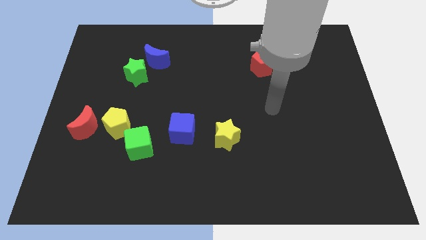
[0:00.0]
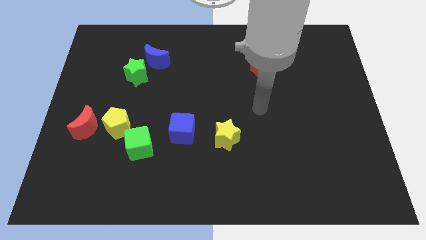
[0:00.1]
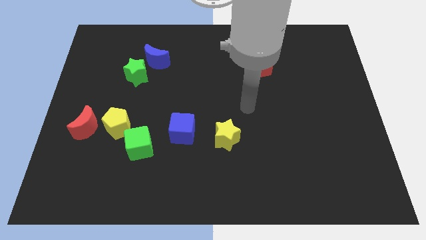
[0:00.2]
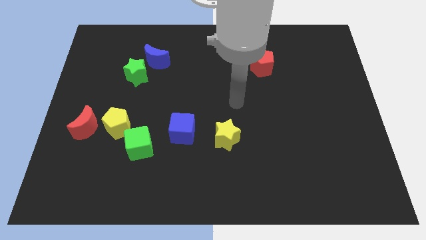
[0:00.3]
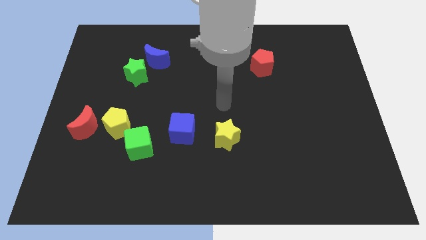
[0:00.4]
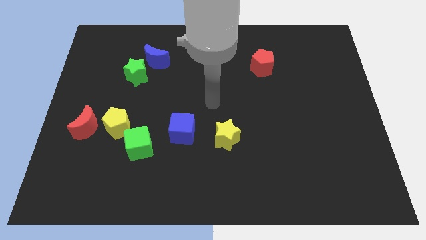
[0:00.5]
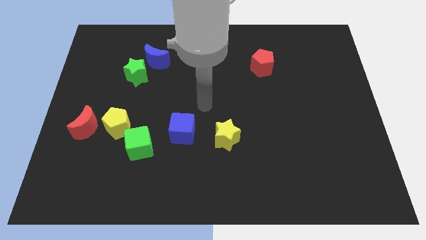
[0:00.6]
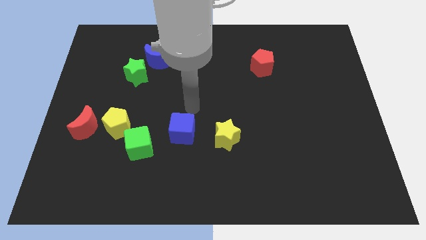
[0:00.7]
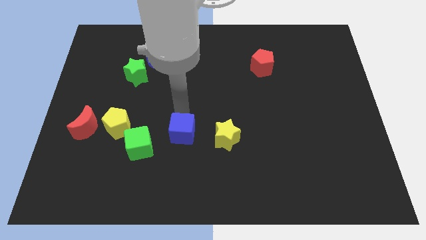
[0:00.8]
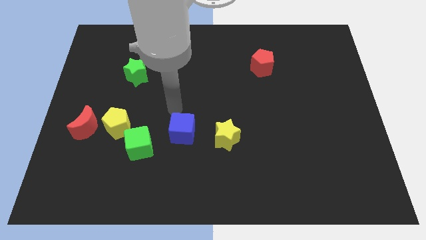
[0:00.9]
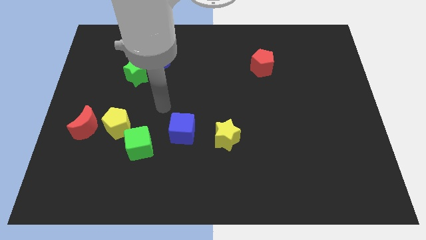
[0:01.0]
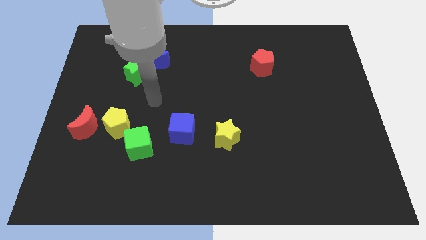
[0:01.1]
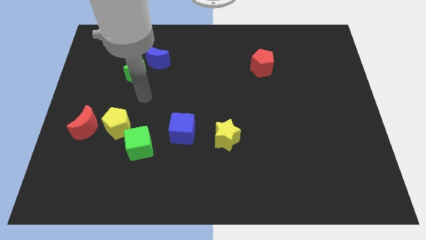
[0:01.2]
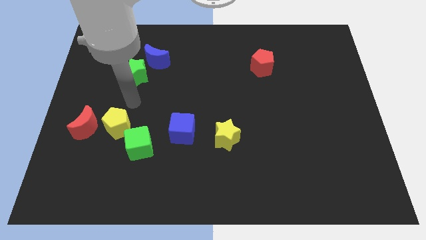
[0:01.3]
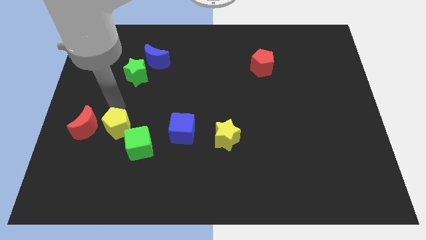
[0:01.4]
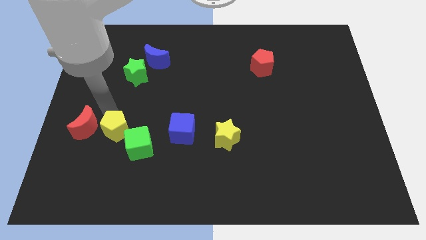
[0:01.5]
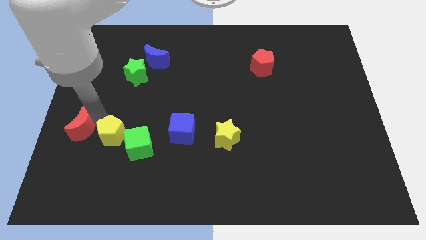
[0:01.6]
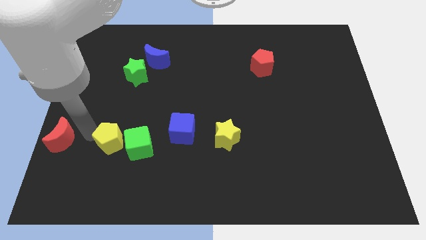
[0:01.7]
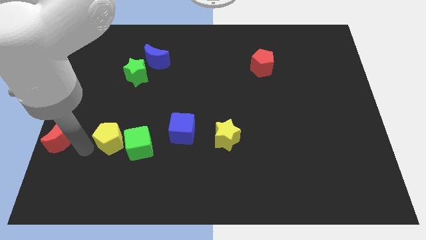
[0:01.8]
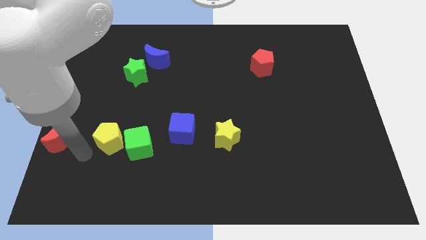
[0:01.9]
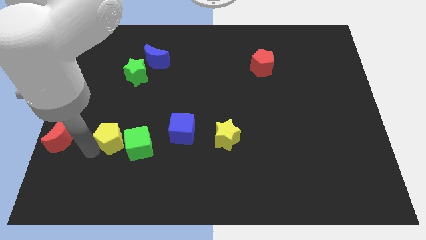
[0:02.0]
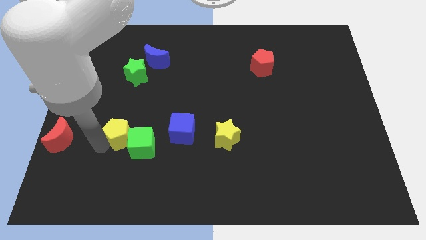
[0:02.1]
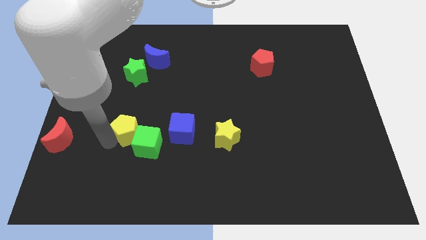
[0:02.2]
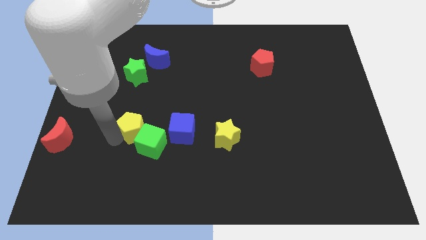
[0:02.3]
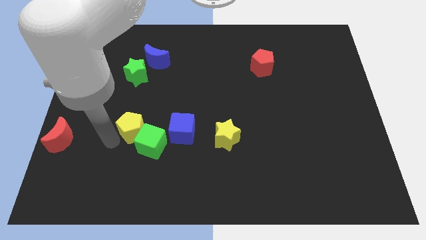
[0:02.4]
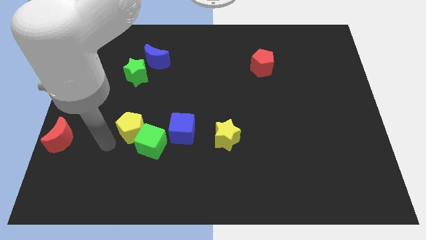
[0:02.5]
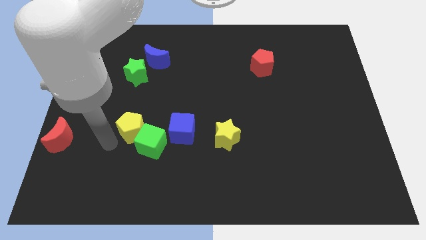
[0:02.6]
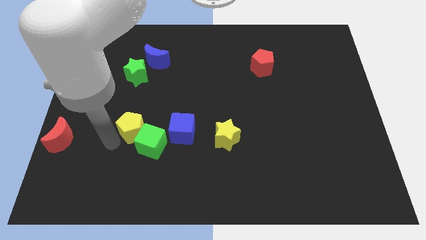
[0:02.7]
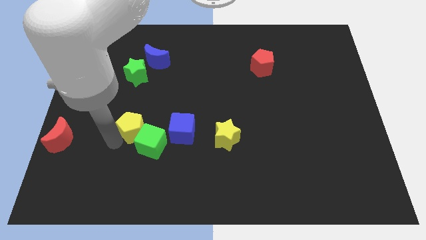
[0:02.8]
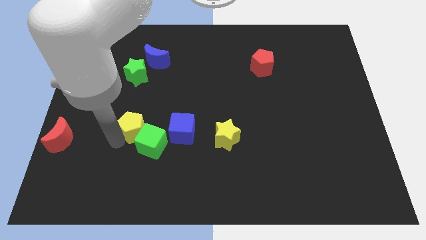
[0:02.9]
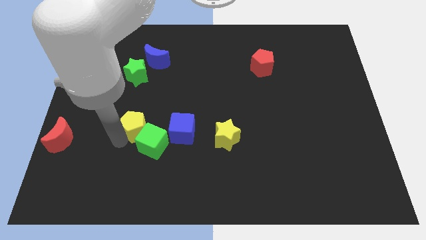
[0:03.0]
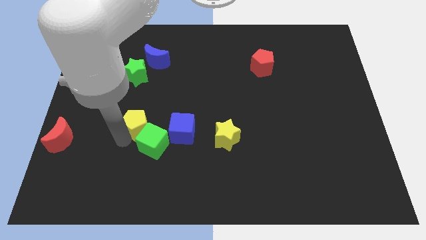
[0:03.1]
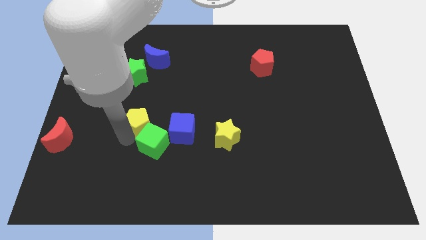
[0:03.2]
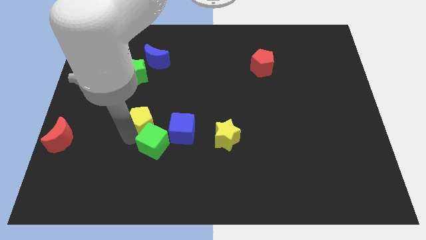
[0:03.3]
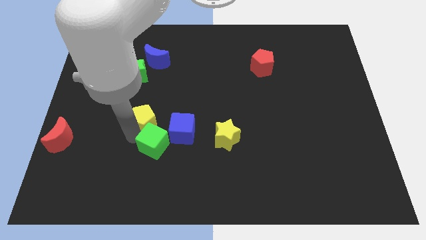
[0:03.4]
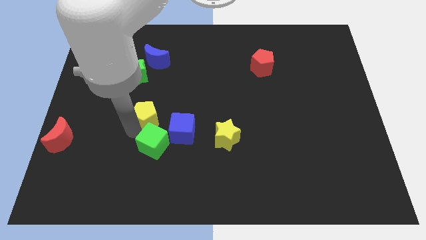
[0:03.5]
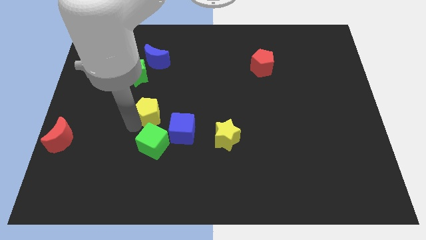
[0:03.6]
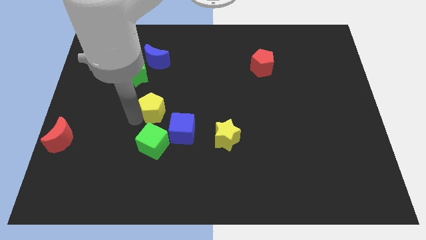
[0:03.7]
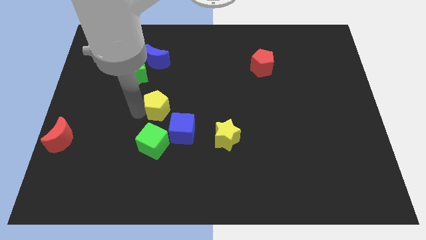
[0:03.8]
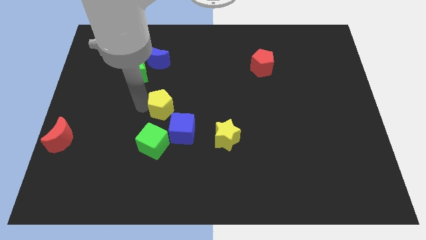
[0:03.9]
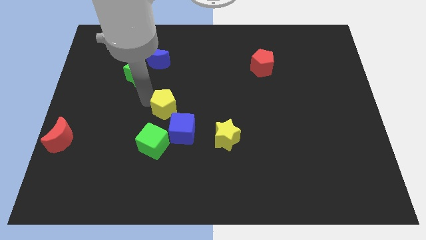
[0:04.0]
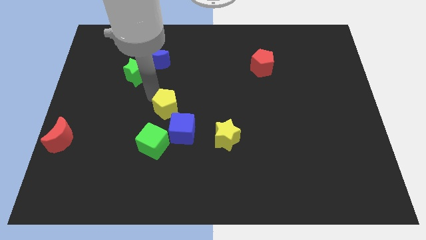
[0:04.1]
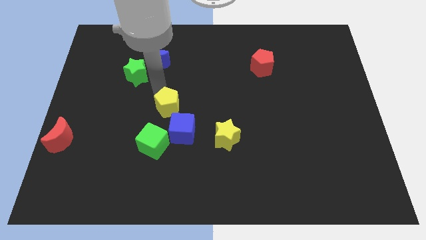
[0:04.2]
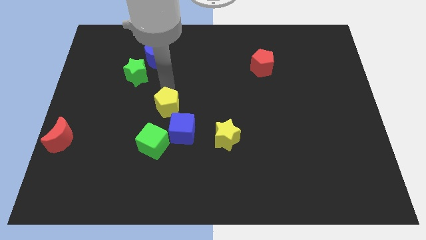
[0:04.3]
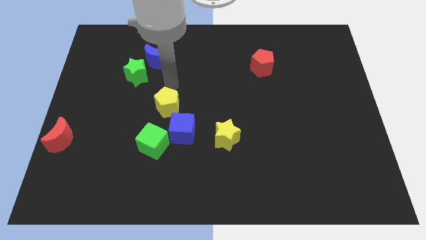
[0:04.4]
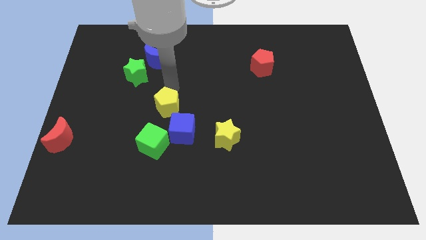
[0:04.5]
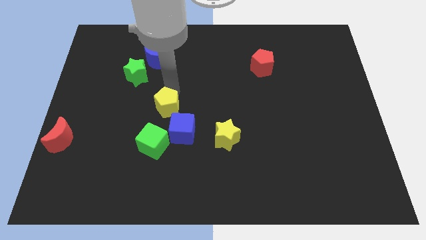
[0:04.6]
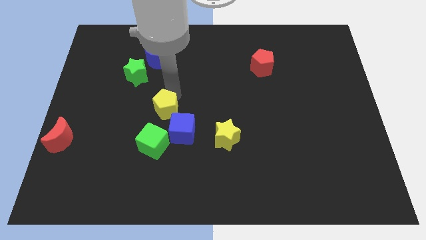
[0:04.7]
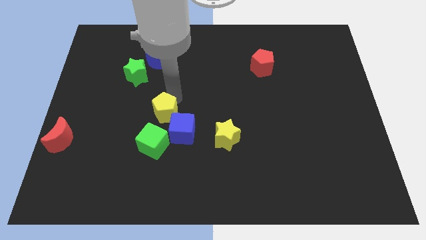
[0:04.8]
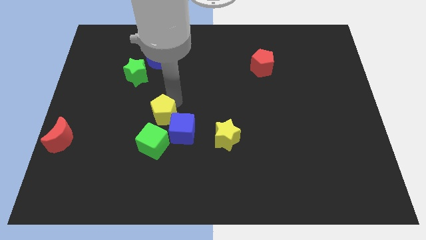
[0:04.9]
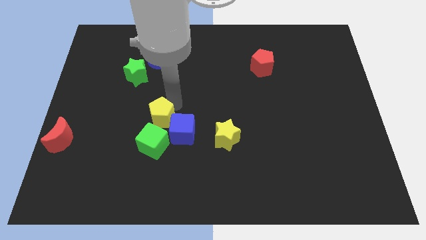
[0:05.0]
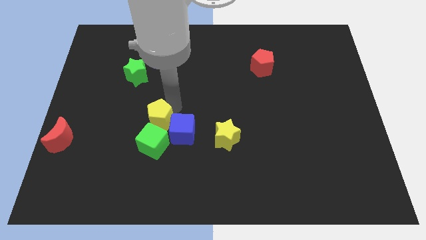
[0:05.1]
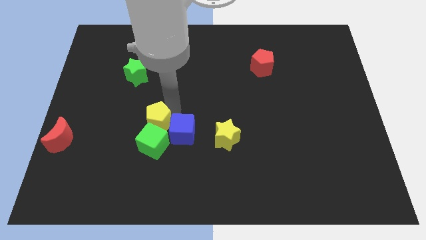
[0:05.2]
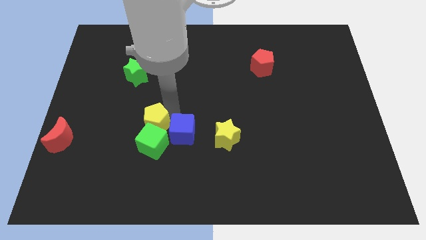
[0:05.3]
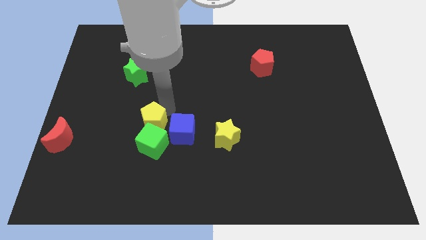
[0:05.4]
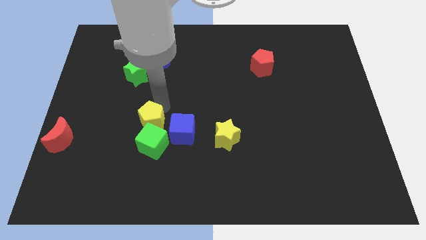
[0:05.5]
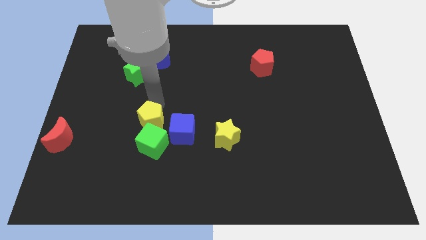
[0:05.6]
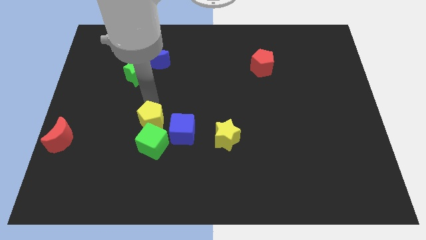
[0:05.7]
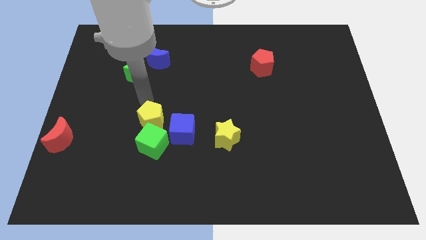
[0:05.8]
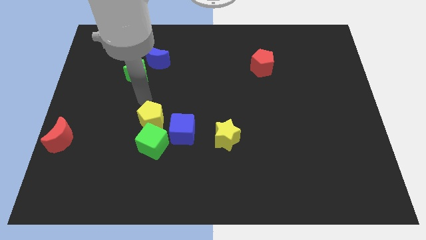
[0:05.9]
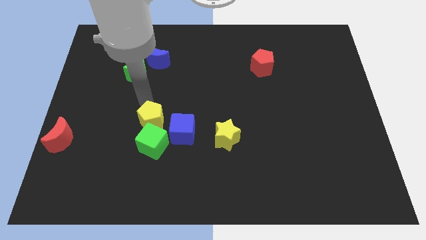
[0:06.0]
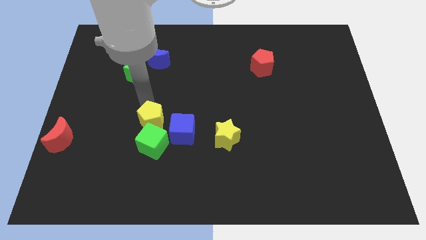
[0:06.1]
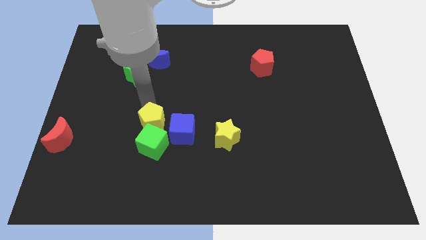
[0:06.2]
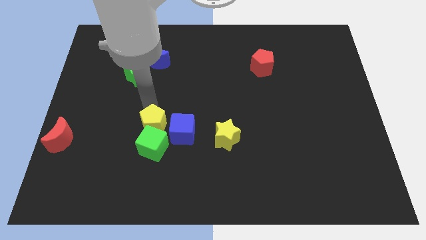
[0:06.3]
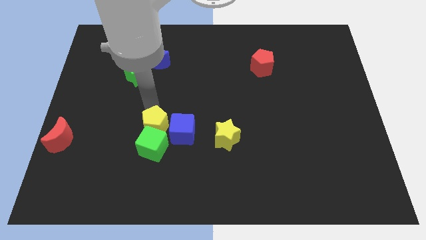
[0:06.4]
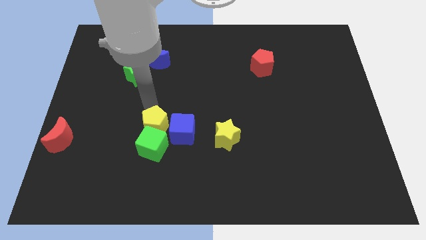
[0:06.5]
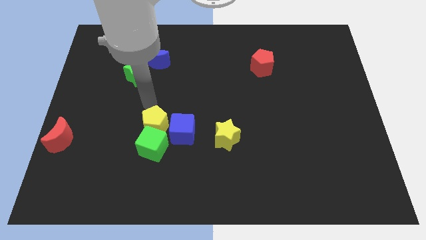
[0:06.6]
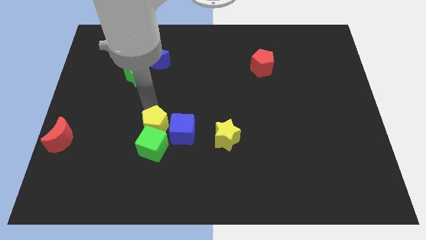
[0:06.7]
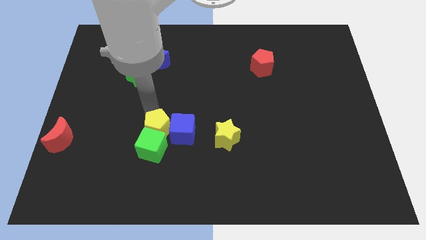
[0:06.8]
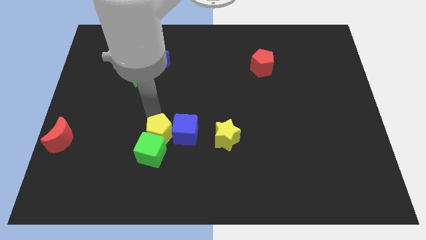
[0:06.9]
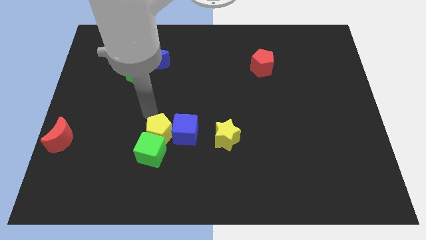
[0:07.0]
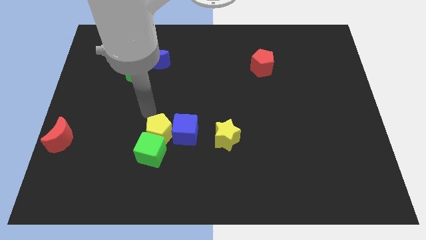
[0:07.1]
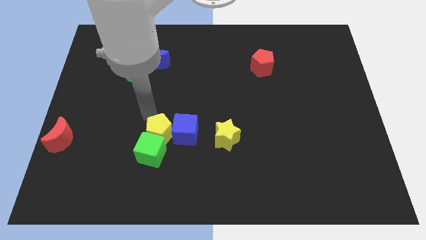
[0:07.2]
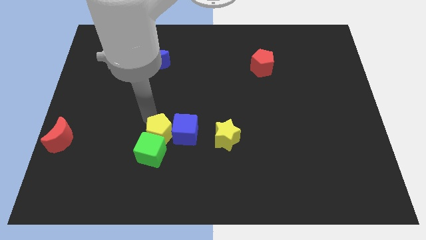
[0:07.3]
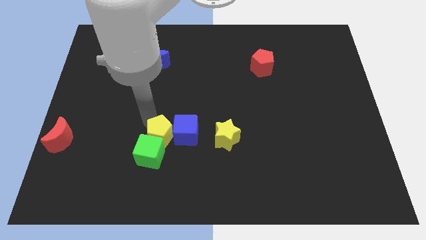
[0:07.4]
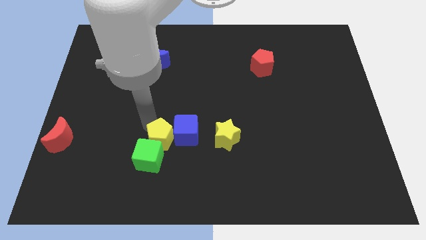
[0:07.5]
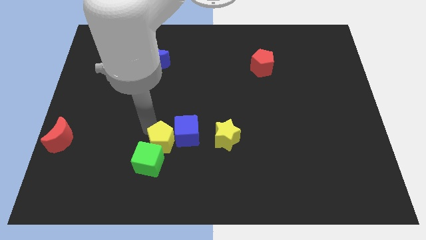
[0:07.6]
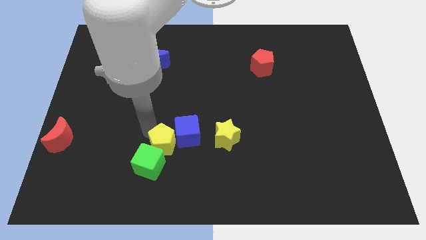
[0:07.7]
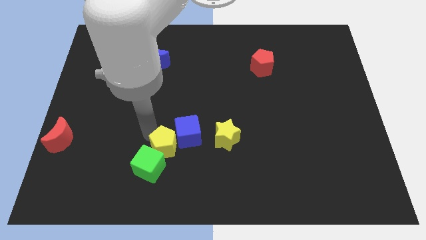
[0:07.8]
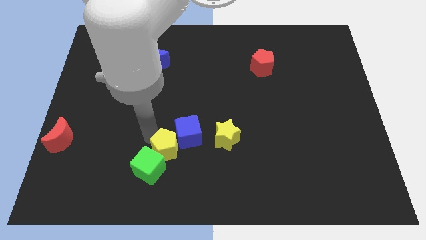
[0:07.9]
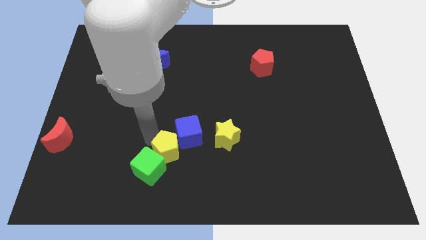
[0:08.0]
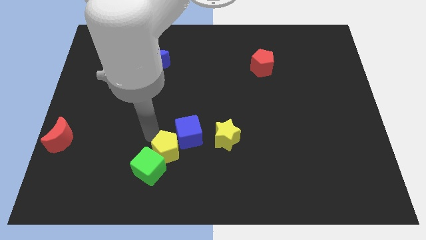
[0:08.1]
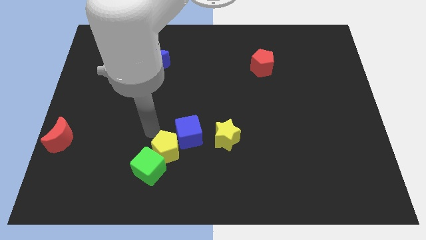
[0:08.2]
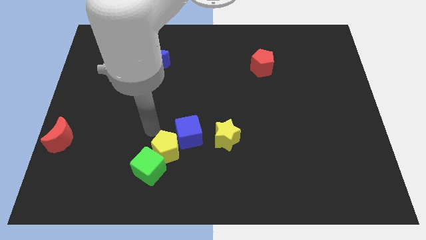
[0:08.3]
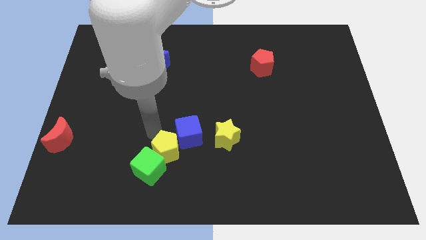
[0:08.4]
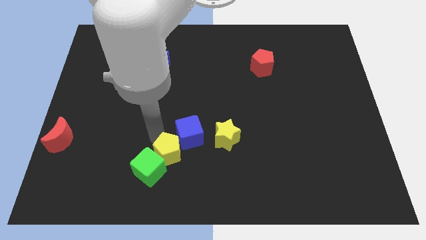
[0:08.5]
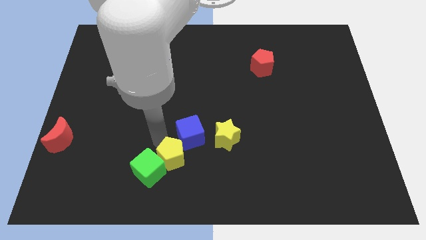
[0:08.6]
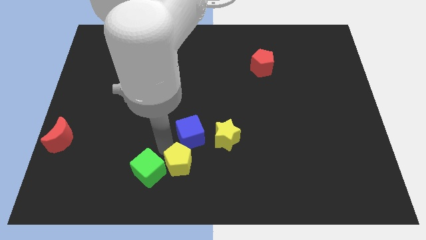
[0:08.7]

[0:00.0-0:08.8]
move the yellow pentagon to the bottom
